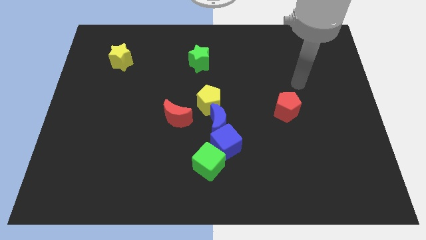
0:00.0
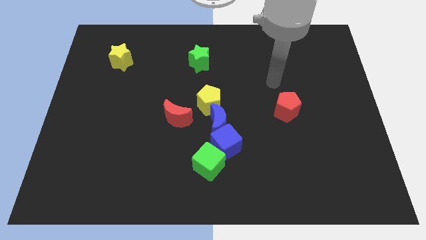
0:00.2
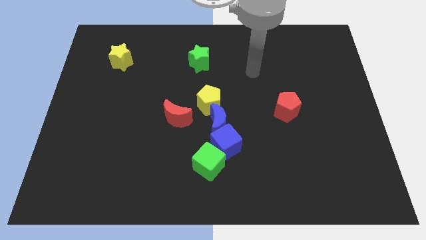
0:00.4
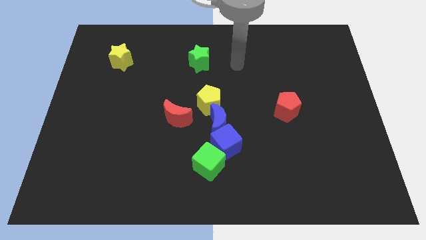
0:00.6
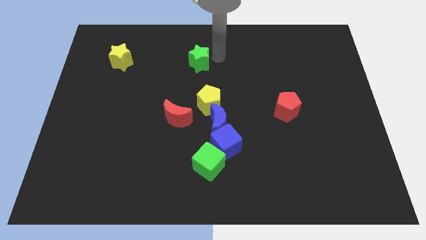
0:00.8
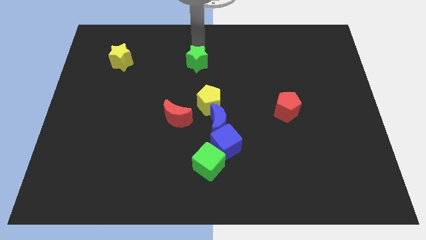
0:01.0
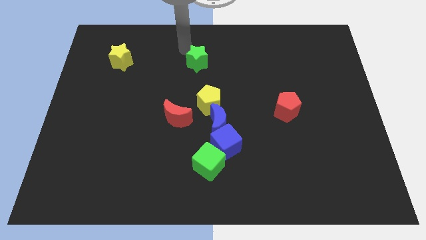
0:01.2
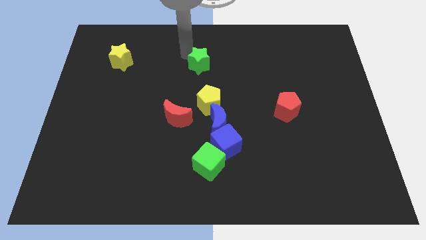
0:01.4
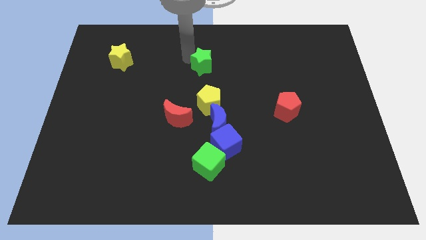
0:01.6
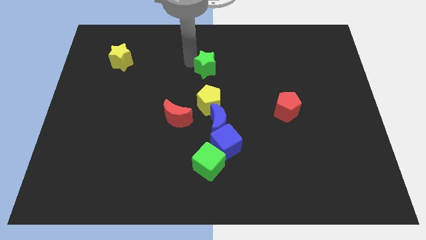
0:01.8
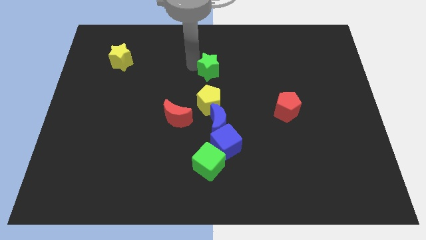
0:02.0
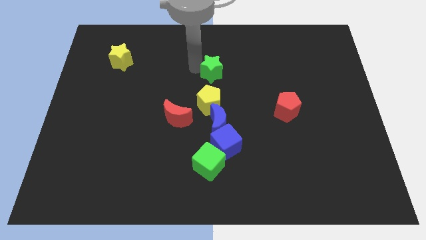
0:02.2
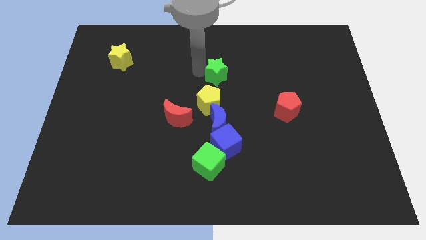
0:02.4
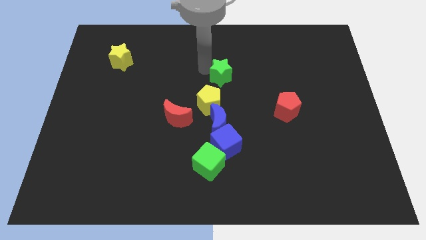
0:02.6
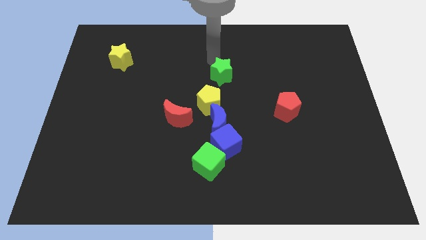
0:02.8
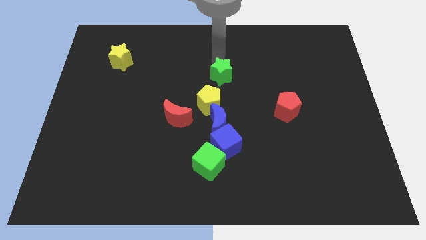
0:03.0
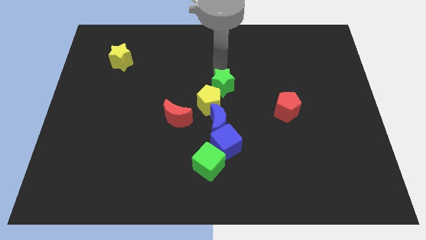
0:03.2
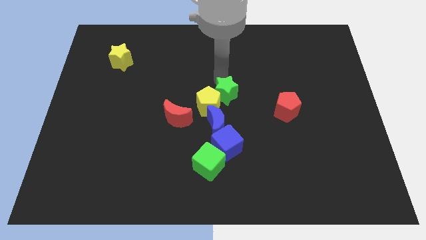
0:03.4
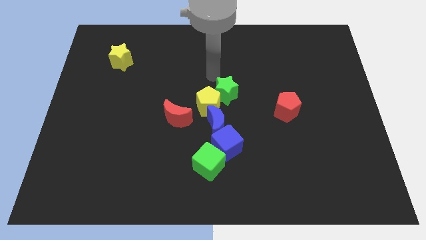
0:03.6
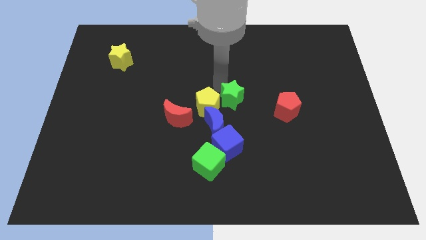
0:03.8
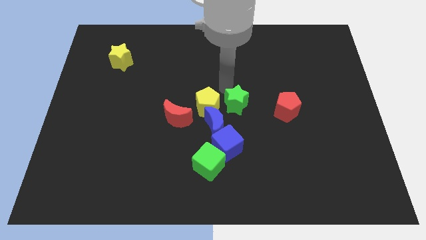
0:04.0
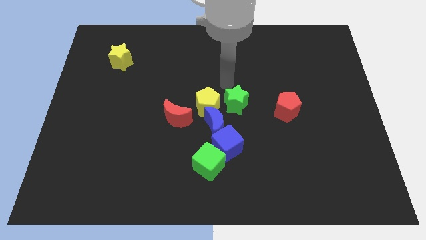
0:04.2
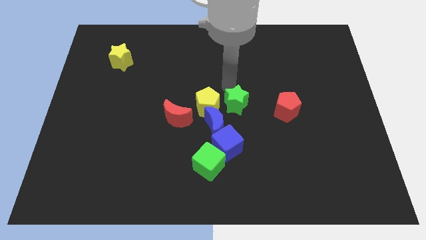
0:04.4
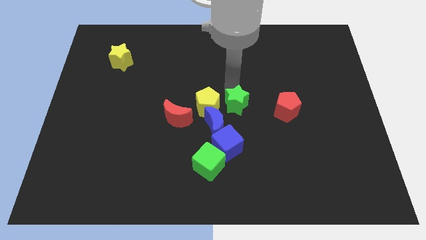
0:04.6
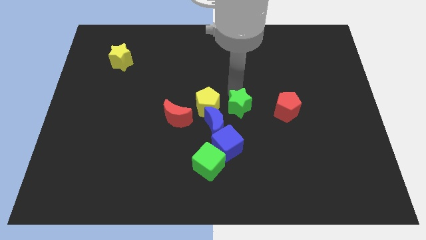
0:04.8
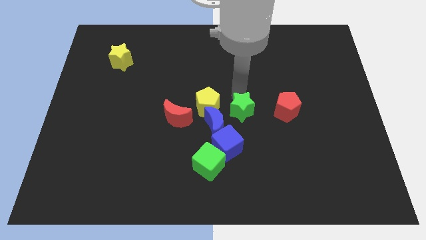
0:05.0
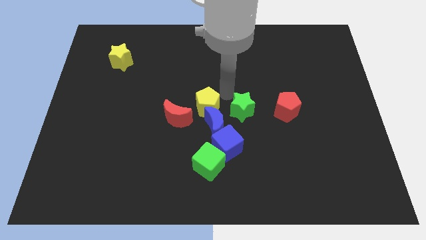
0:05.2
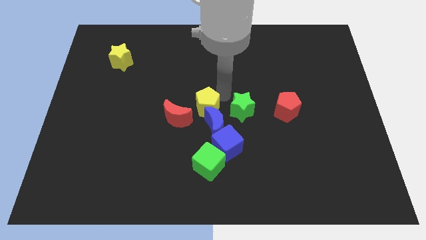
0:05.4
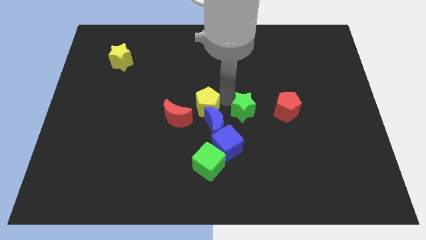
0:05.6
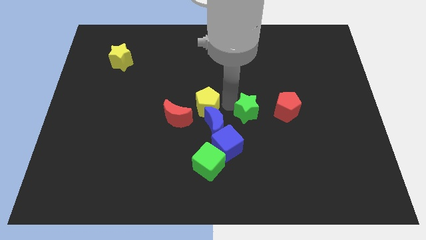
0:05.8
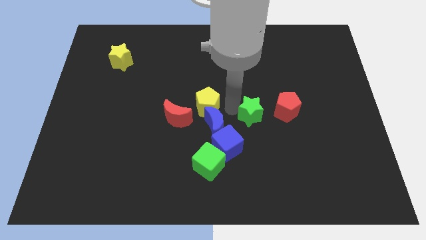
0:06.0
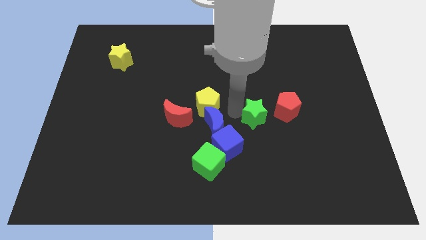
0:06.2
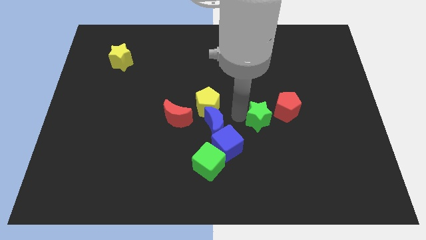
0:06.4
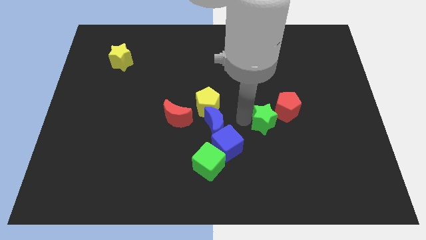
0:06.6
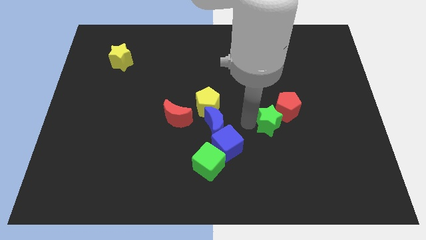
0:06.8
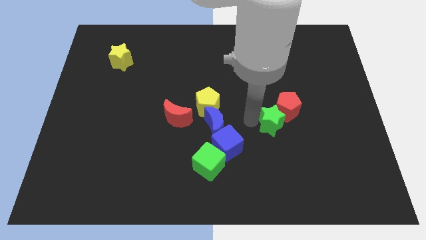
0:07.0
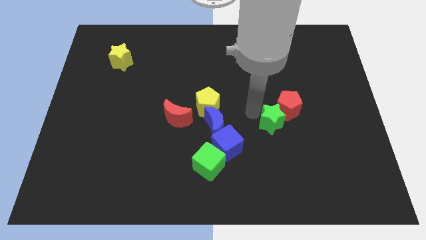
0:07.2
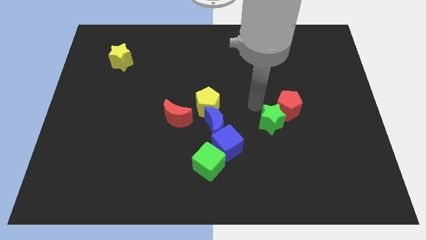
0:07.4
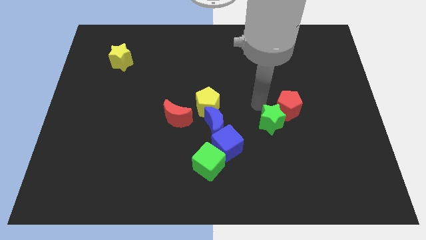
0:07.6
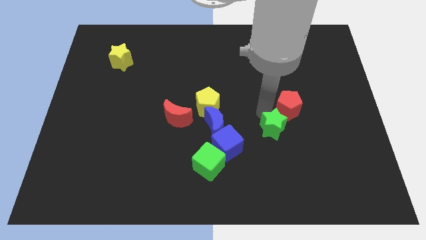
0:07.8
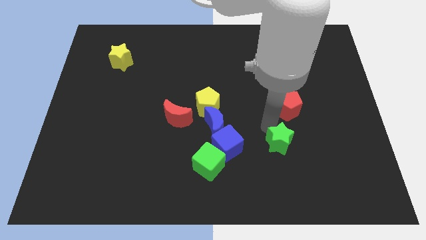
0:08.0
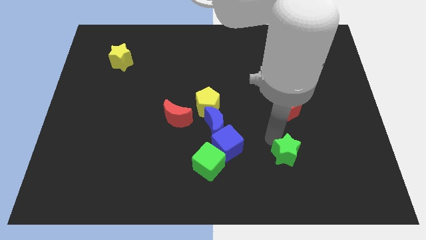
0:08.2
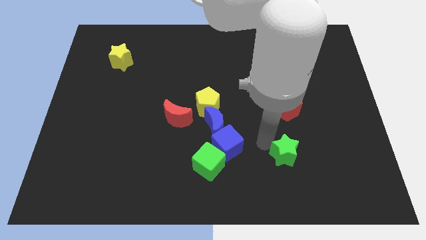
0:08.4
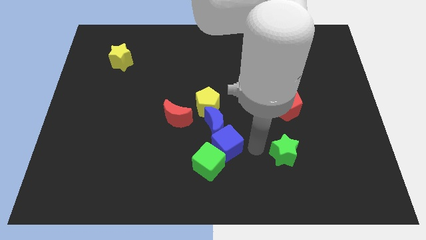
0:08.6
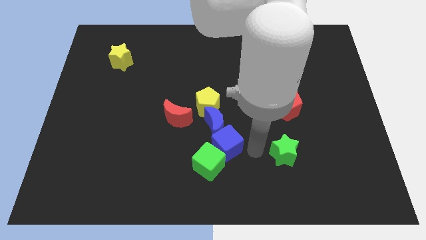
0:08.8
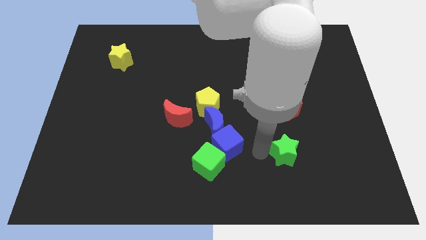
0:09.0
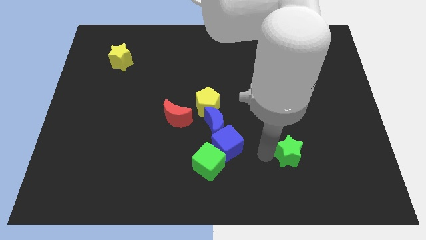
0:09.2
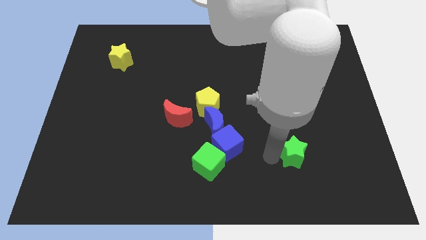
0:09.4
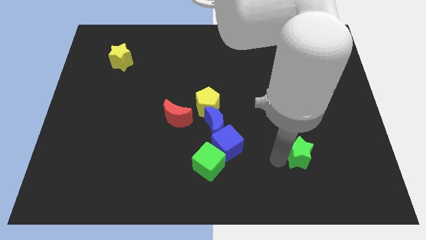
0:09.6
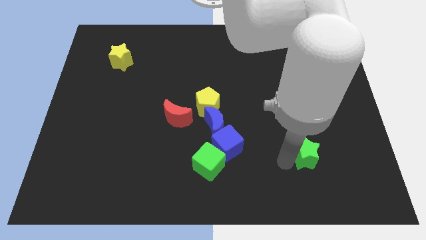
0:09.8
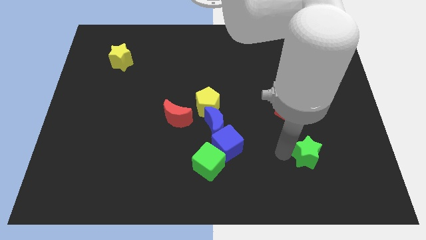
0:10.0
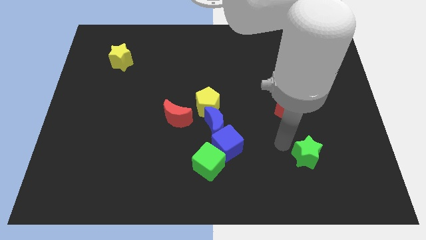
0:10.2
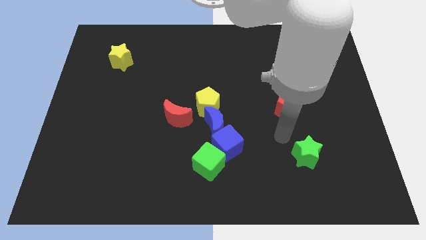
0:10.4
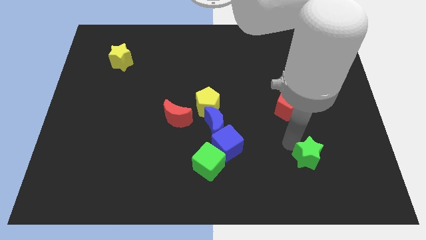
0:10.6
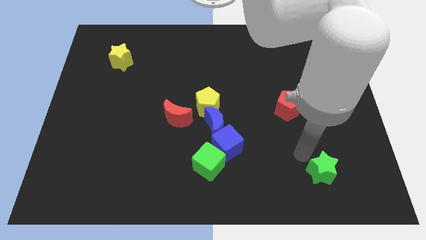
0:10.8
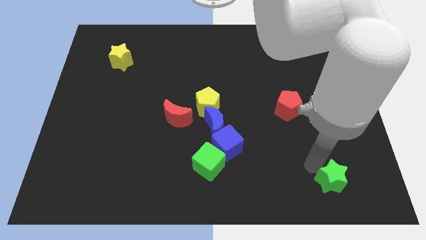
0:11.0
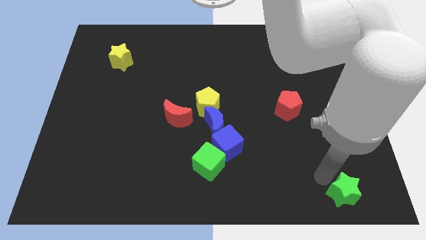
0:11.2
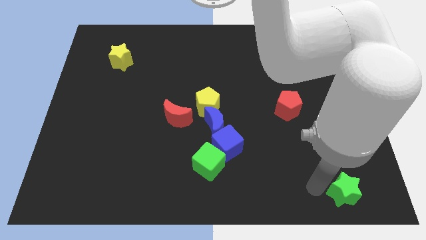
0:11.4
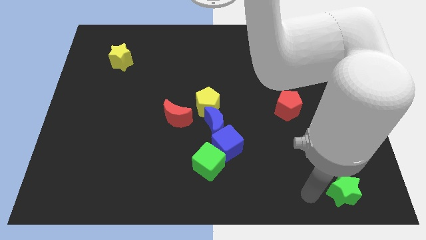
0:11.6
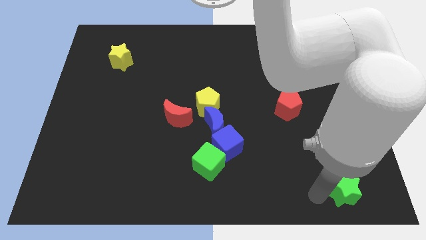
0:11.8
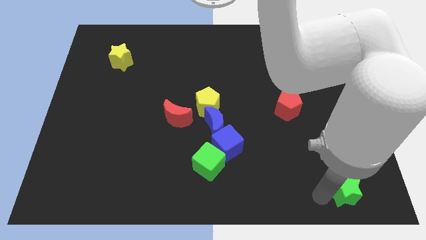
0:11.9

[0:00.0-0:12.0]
put the green star to the bottom right corner
